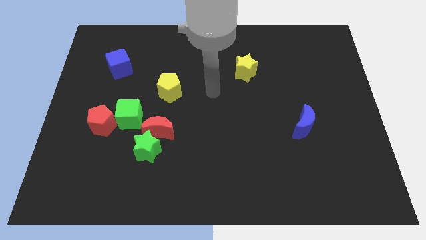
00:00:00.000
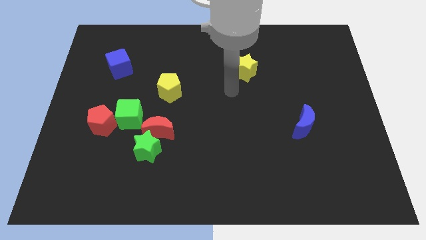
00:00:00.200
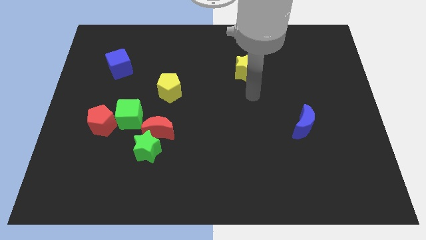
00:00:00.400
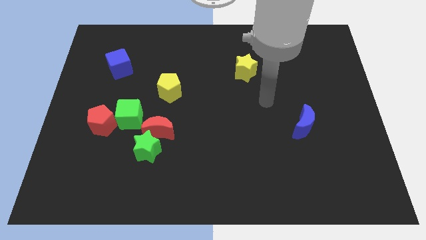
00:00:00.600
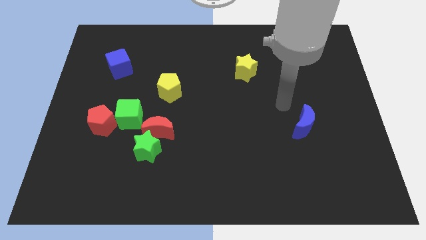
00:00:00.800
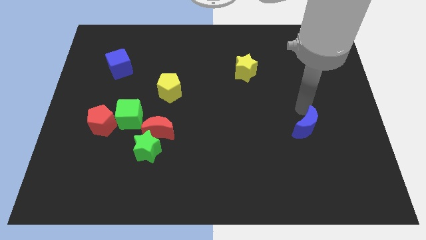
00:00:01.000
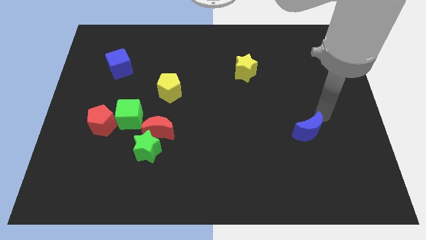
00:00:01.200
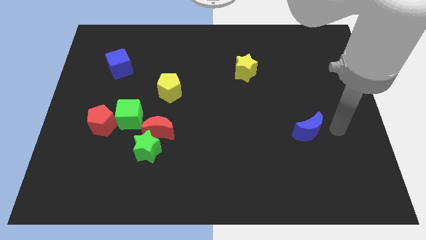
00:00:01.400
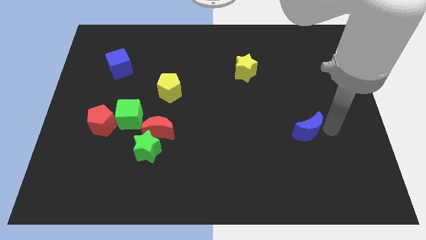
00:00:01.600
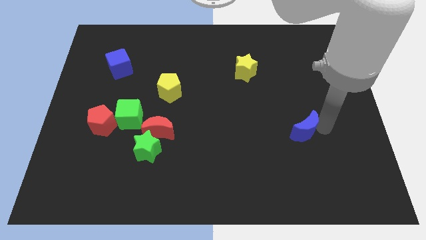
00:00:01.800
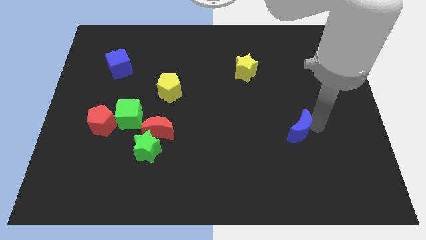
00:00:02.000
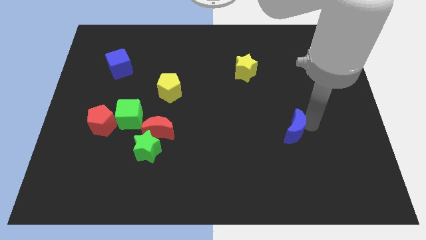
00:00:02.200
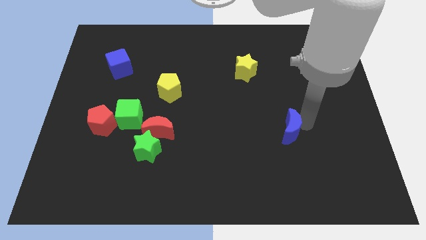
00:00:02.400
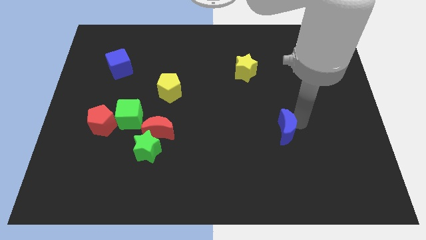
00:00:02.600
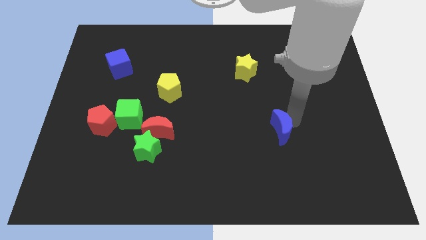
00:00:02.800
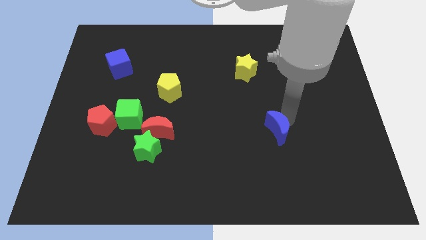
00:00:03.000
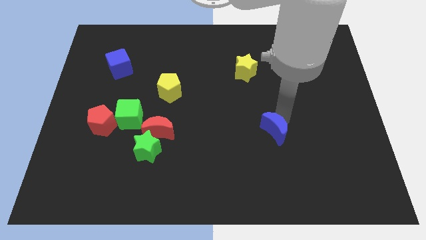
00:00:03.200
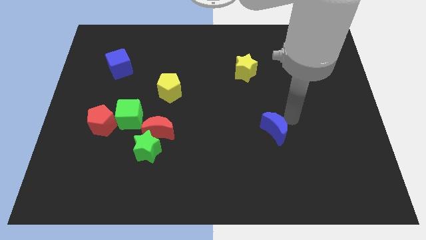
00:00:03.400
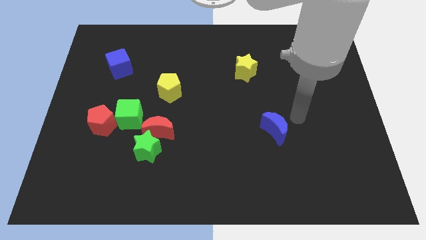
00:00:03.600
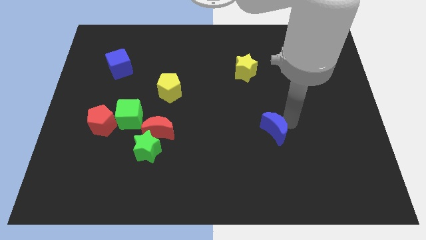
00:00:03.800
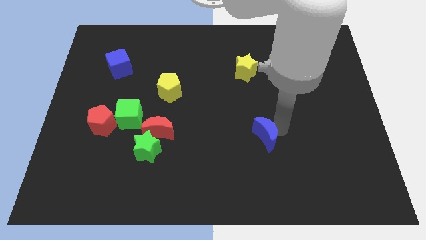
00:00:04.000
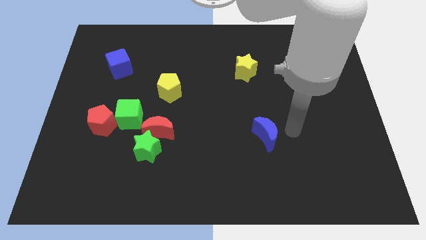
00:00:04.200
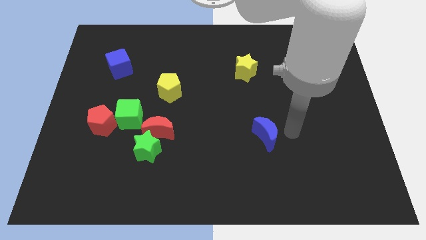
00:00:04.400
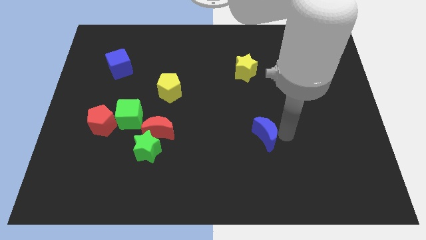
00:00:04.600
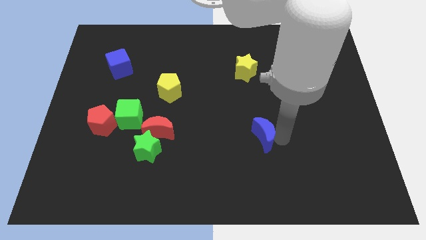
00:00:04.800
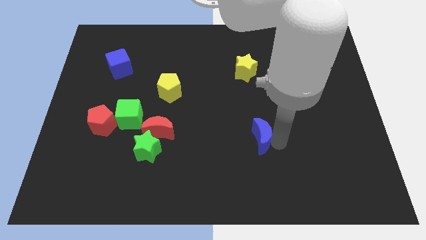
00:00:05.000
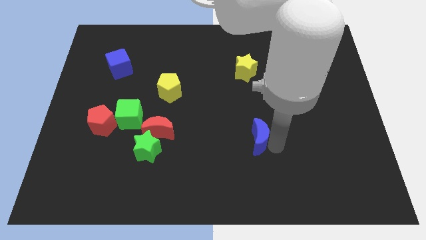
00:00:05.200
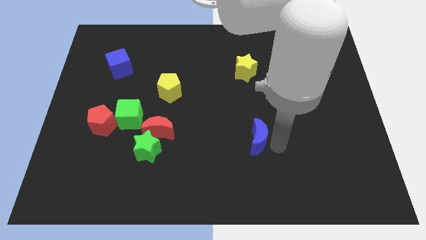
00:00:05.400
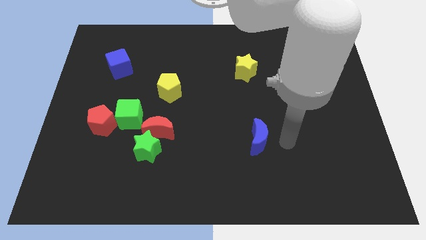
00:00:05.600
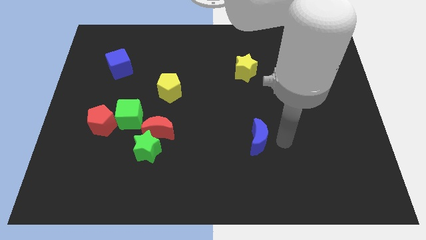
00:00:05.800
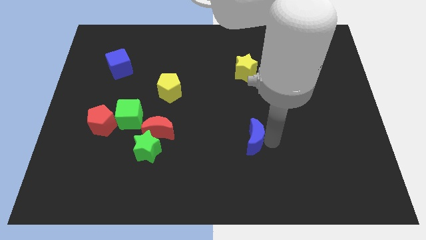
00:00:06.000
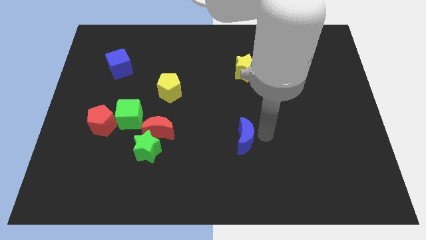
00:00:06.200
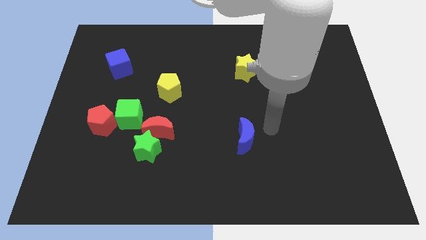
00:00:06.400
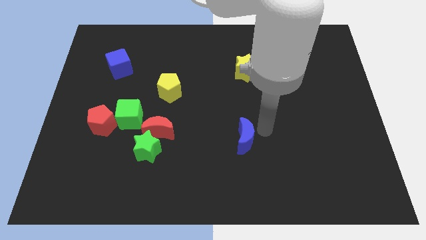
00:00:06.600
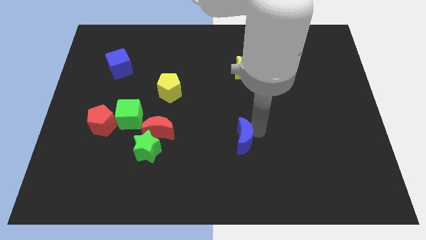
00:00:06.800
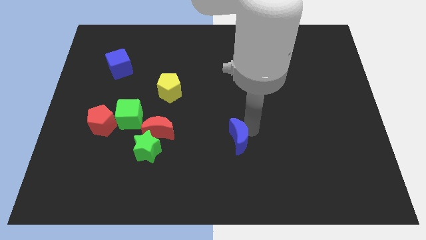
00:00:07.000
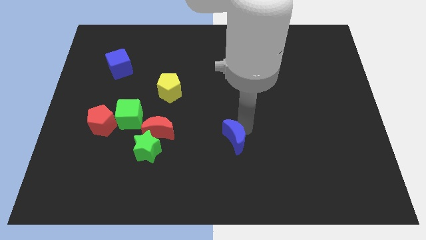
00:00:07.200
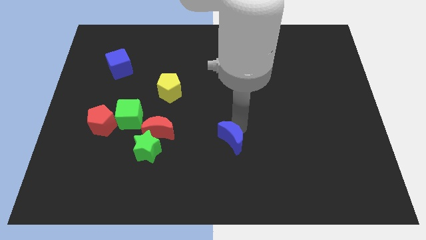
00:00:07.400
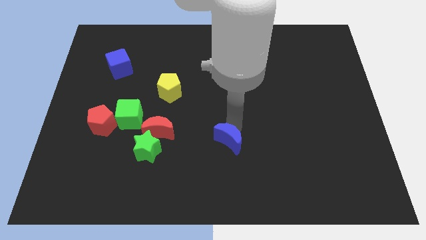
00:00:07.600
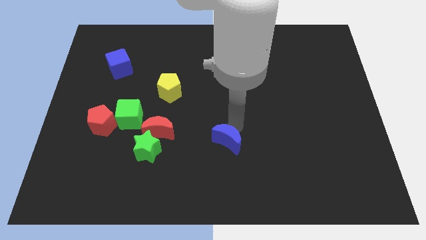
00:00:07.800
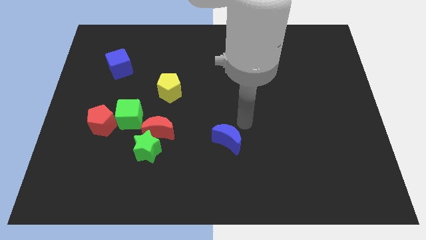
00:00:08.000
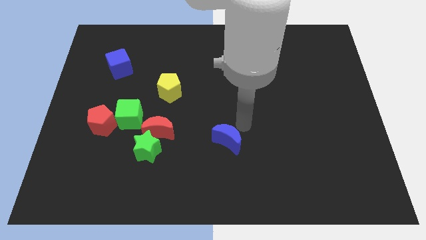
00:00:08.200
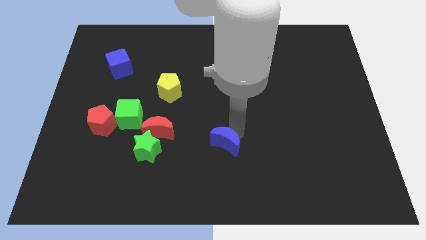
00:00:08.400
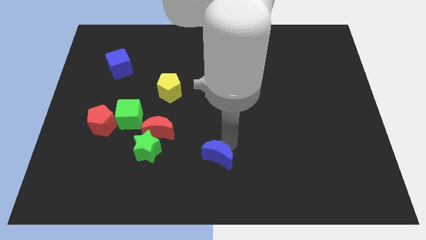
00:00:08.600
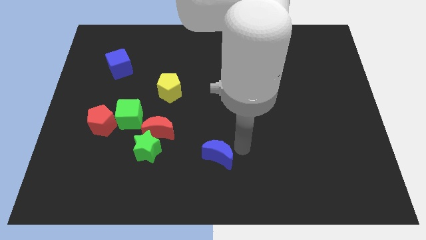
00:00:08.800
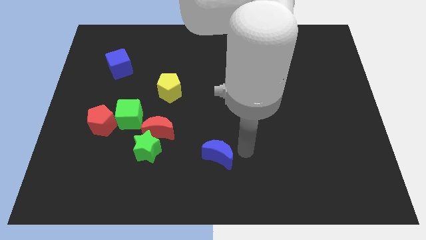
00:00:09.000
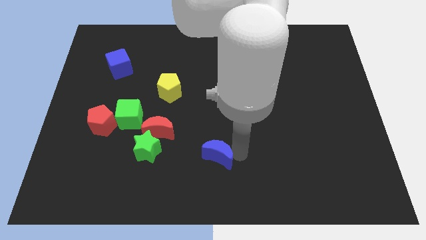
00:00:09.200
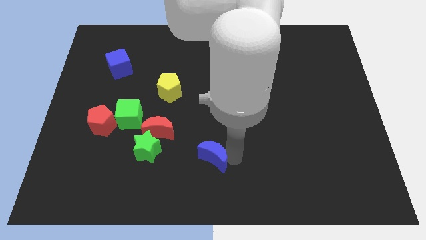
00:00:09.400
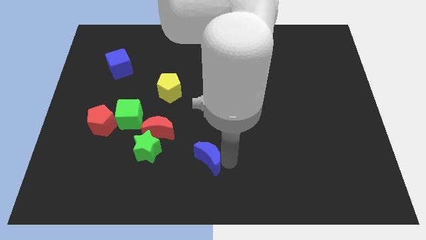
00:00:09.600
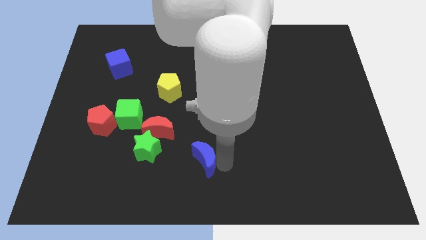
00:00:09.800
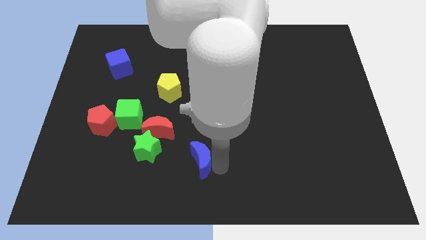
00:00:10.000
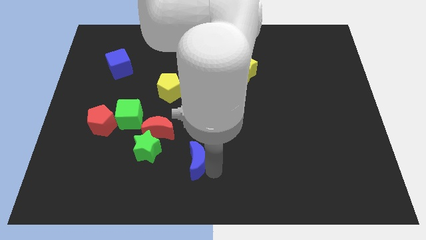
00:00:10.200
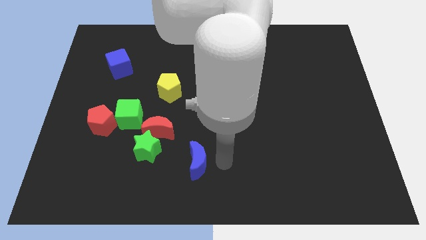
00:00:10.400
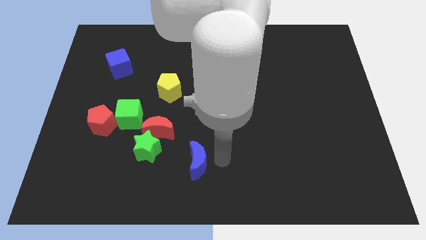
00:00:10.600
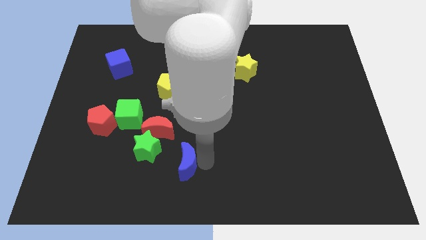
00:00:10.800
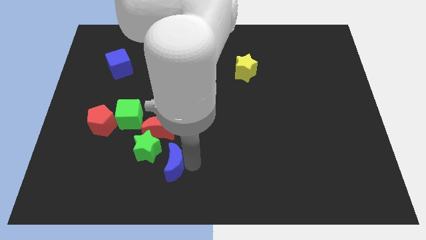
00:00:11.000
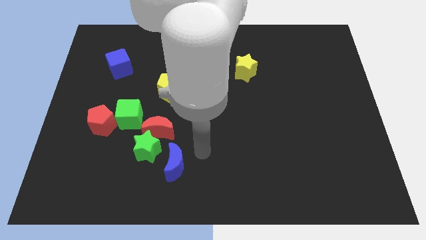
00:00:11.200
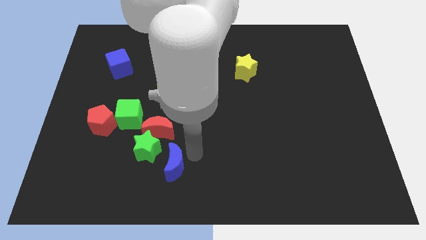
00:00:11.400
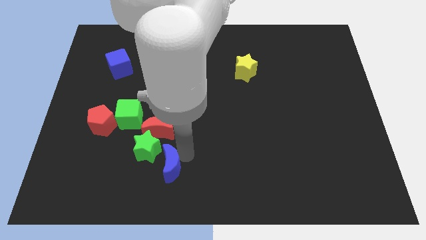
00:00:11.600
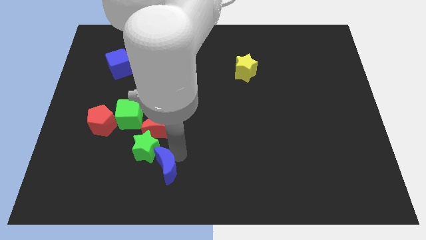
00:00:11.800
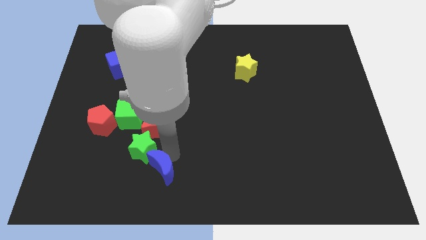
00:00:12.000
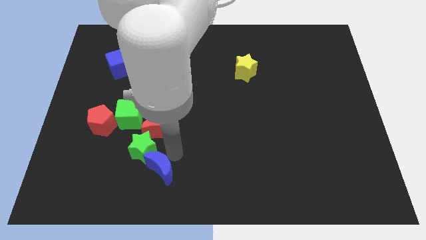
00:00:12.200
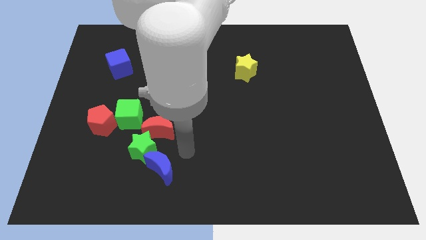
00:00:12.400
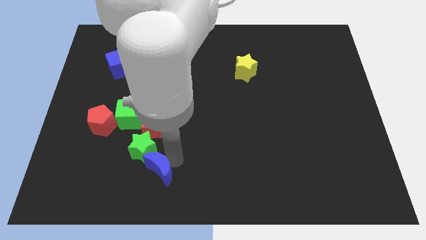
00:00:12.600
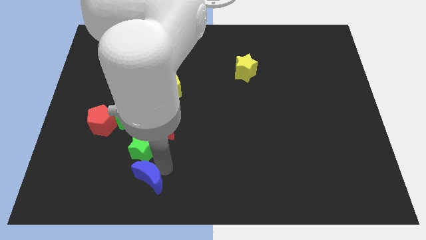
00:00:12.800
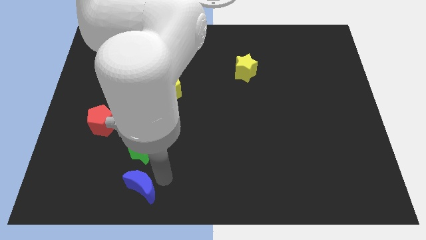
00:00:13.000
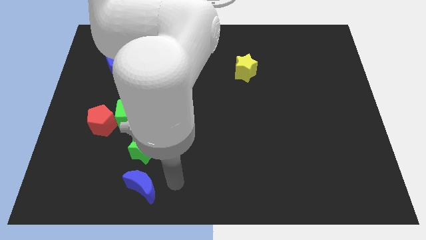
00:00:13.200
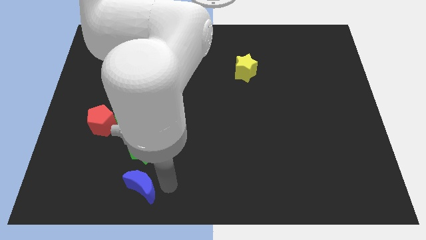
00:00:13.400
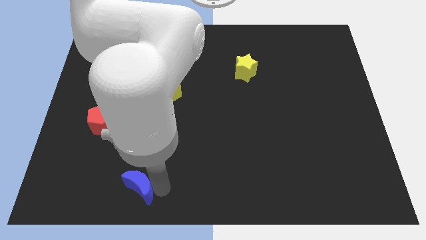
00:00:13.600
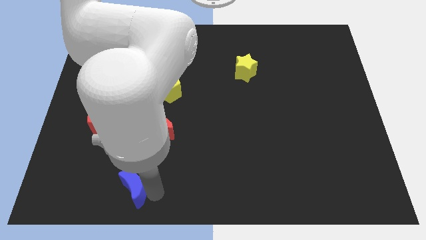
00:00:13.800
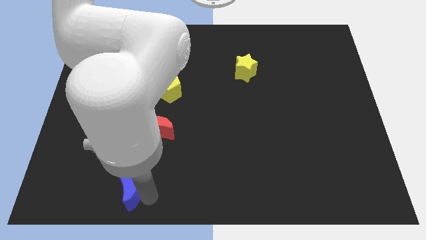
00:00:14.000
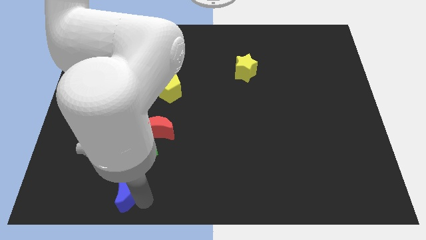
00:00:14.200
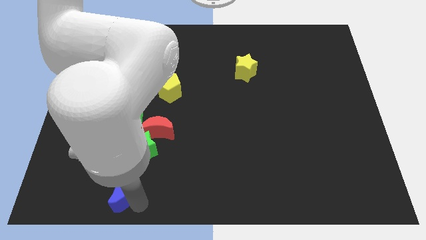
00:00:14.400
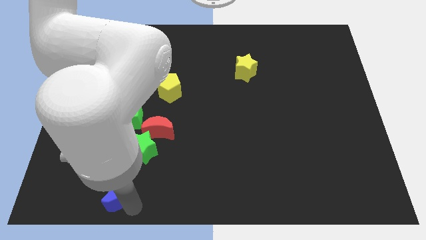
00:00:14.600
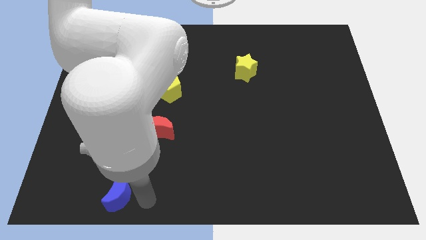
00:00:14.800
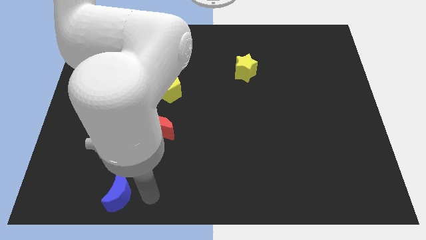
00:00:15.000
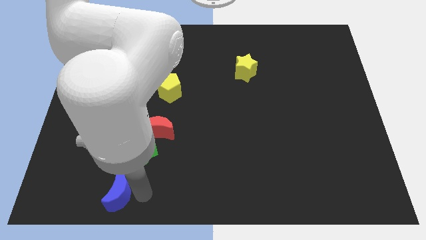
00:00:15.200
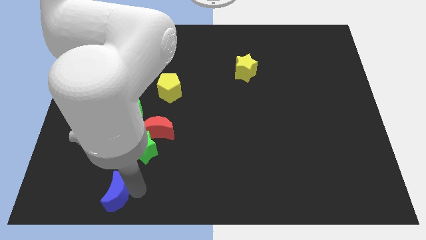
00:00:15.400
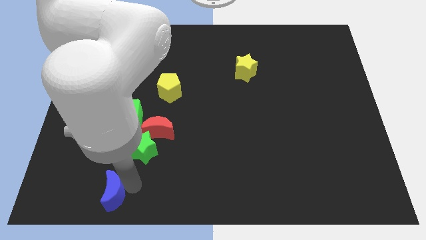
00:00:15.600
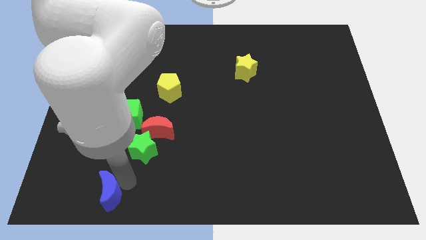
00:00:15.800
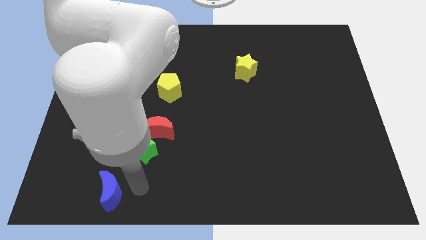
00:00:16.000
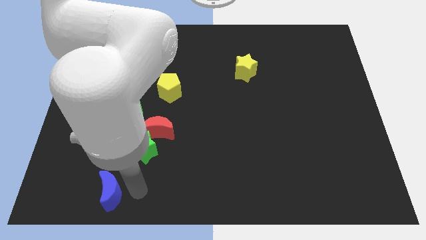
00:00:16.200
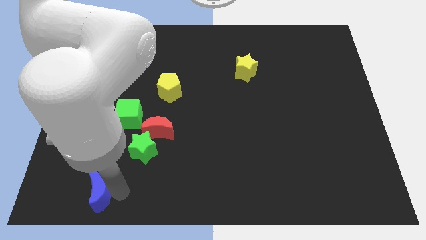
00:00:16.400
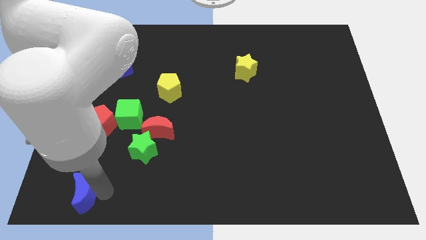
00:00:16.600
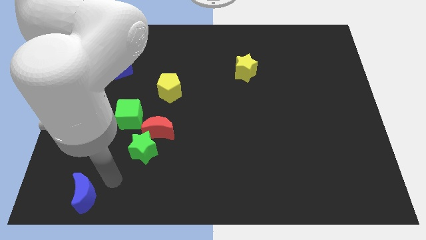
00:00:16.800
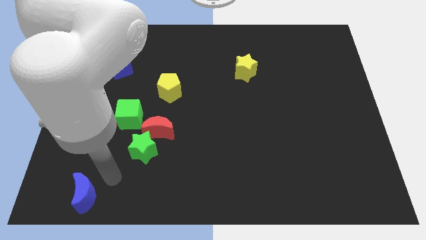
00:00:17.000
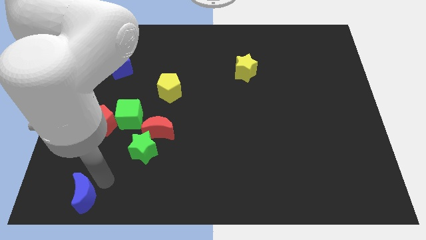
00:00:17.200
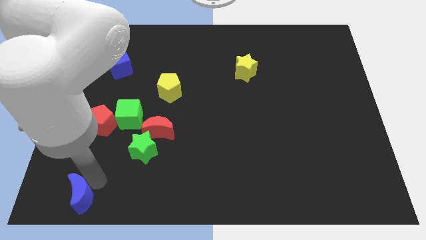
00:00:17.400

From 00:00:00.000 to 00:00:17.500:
slide the blue moon to the bottom left
